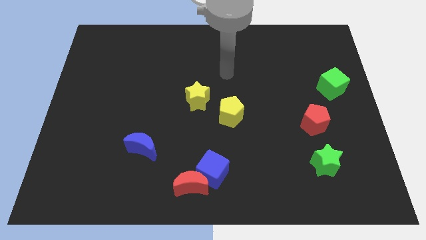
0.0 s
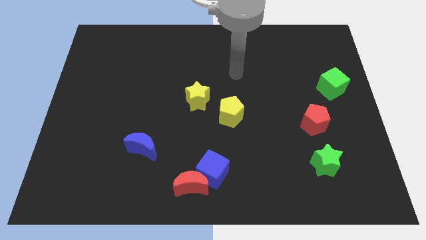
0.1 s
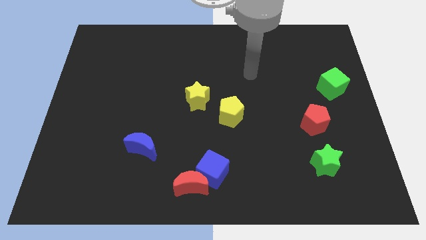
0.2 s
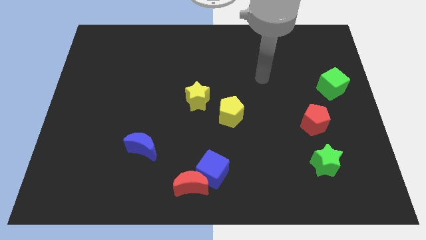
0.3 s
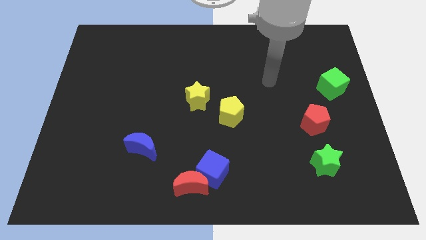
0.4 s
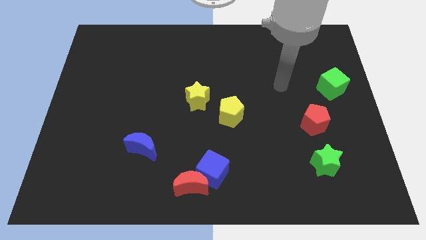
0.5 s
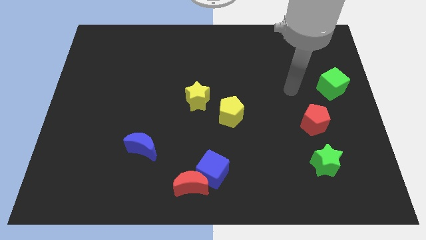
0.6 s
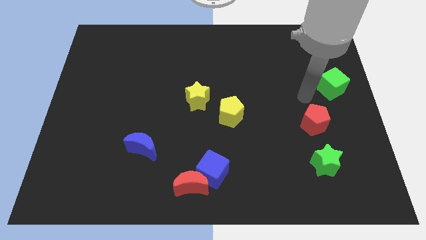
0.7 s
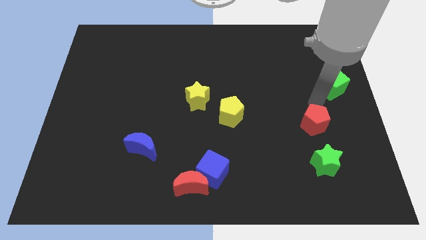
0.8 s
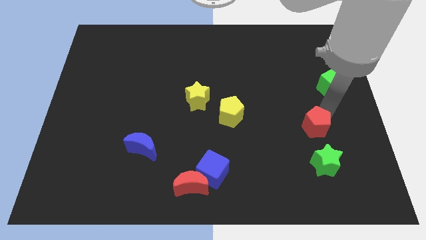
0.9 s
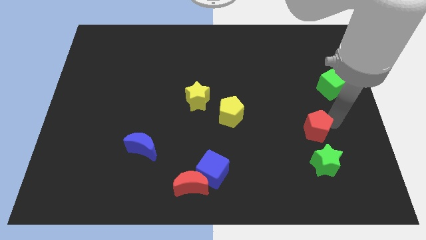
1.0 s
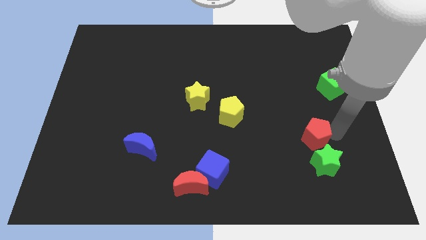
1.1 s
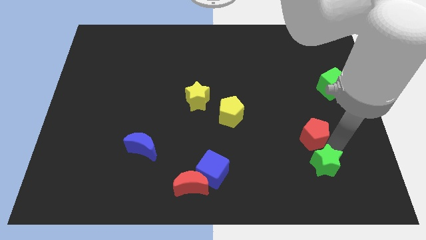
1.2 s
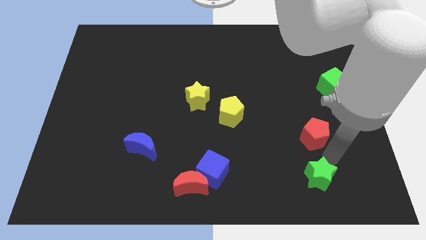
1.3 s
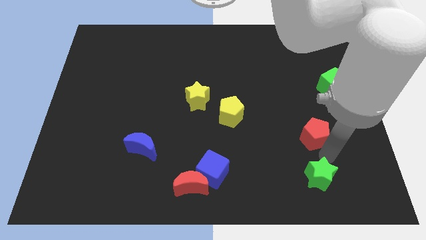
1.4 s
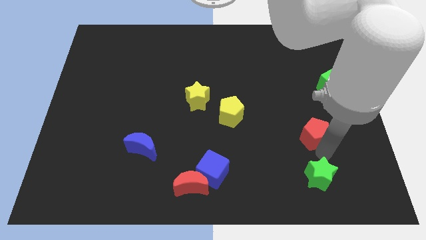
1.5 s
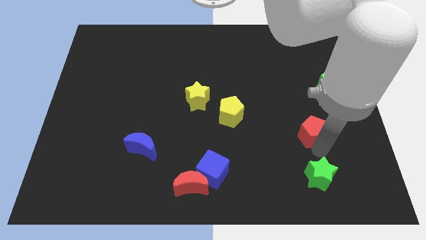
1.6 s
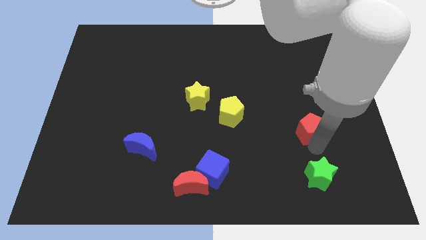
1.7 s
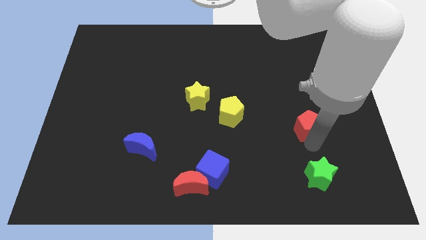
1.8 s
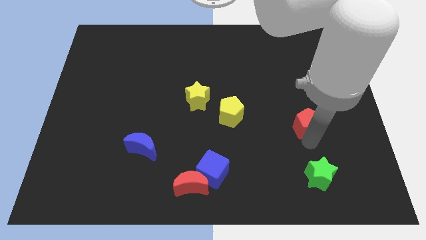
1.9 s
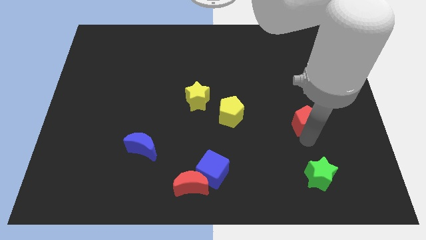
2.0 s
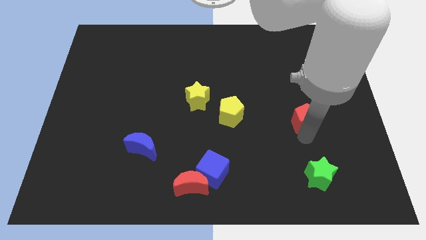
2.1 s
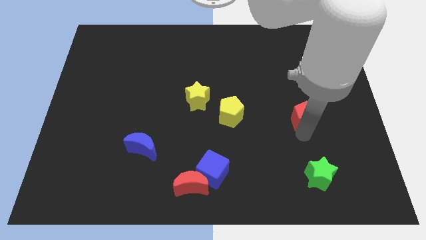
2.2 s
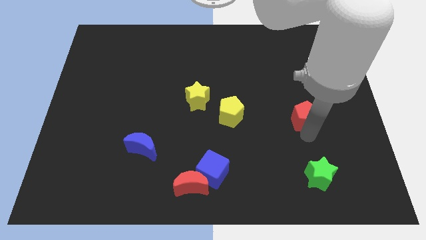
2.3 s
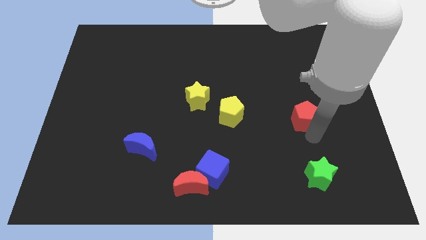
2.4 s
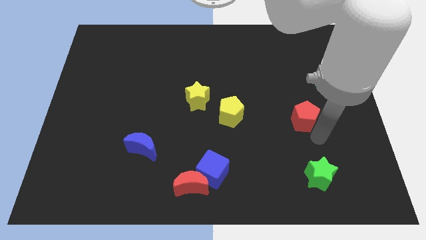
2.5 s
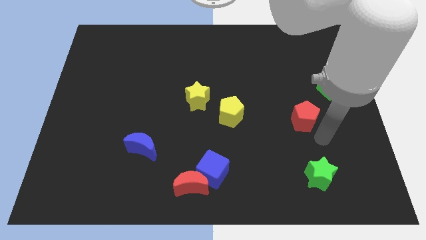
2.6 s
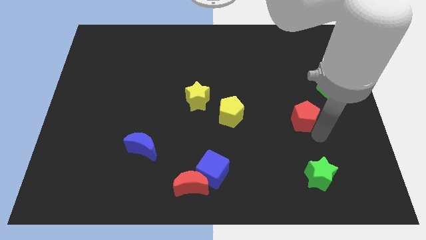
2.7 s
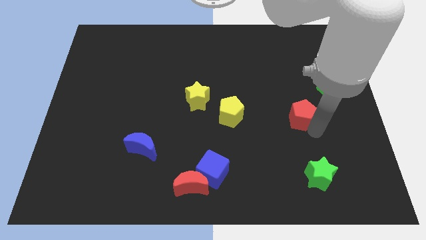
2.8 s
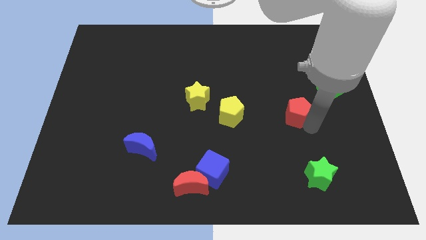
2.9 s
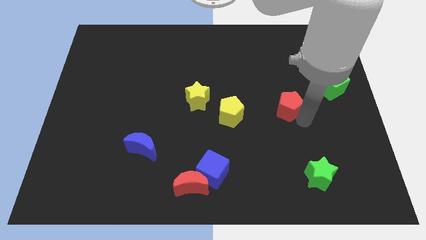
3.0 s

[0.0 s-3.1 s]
push the red pentagon up and to the left somewhat

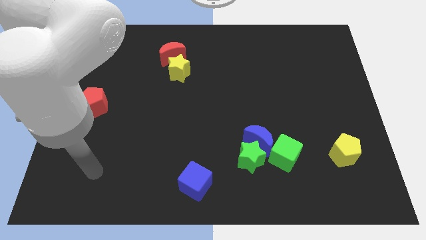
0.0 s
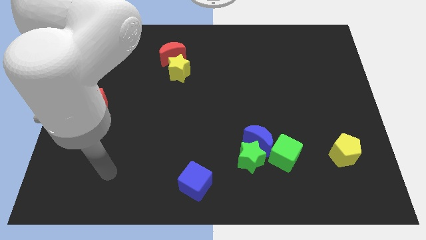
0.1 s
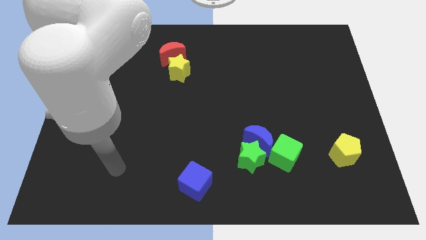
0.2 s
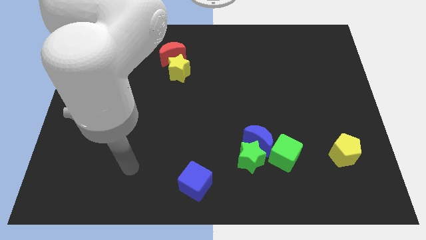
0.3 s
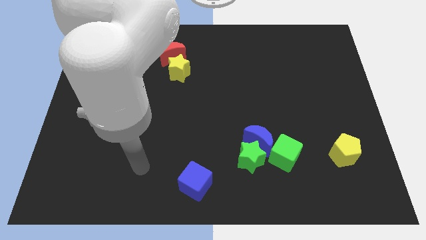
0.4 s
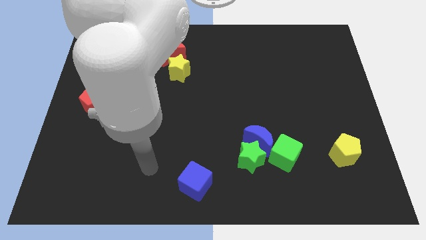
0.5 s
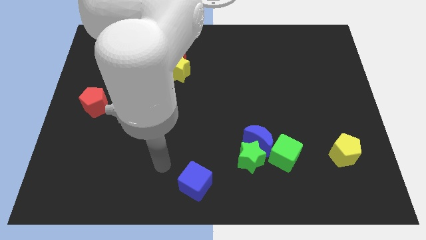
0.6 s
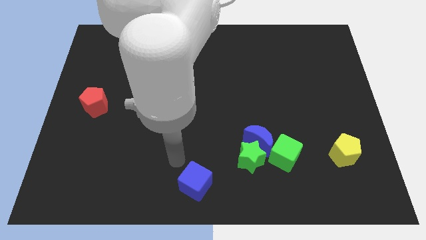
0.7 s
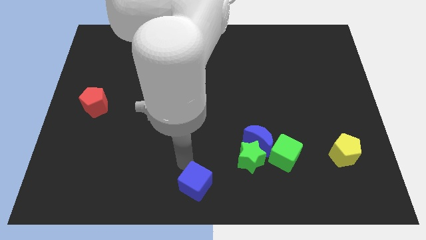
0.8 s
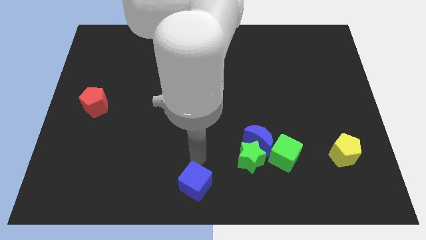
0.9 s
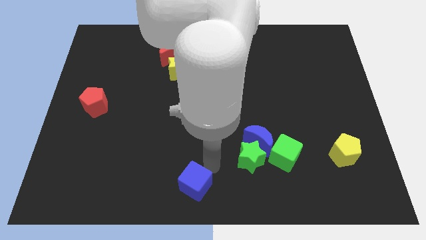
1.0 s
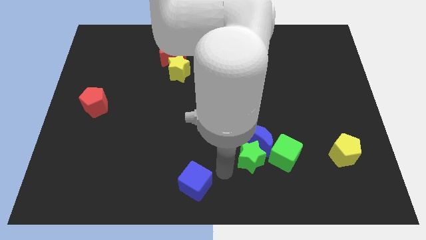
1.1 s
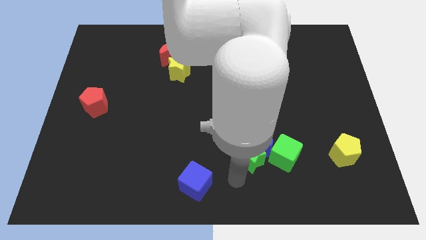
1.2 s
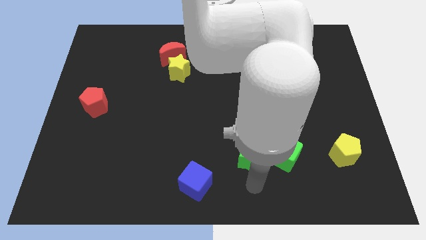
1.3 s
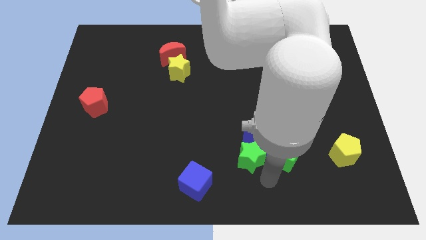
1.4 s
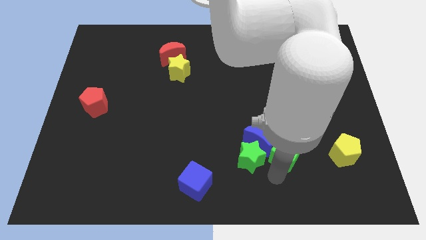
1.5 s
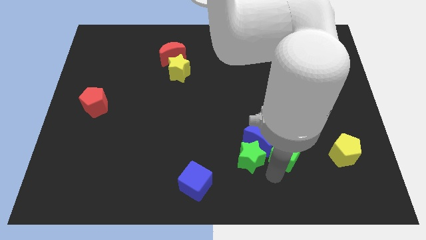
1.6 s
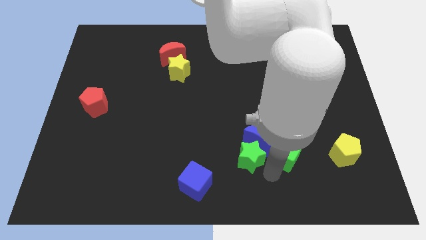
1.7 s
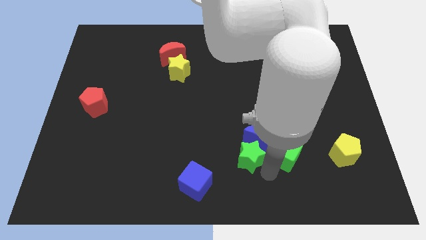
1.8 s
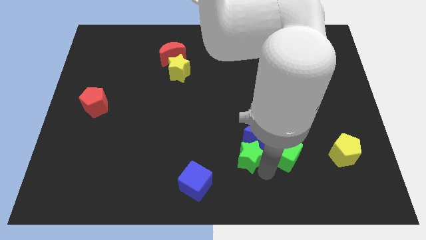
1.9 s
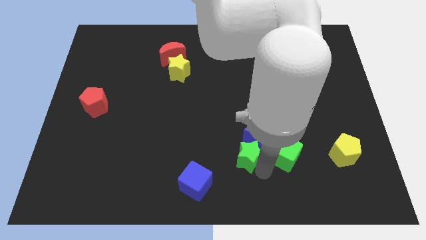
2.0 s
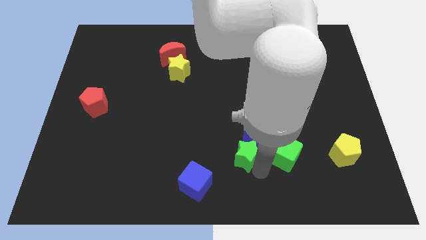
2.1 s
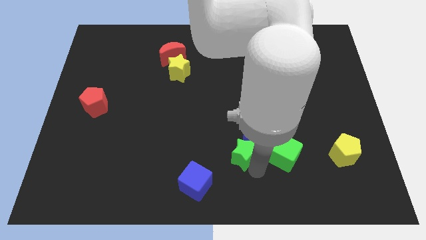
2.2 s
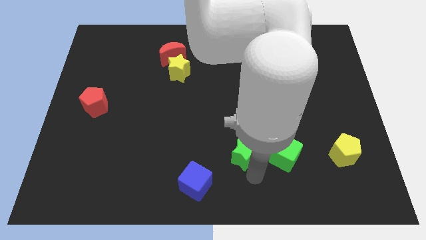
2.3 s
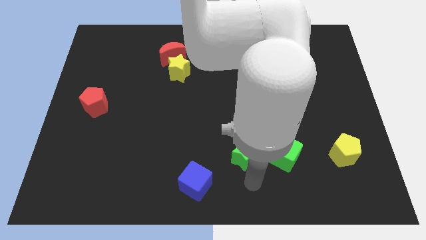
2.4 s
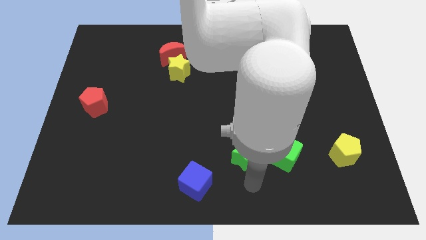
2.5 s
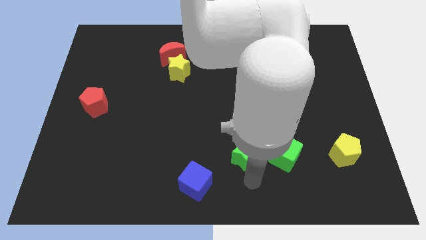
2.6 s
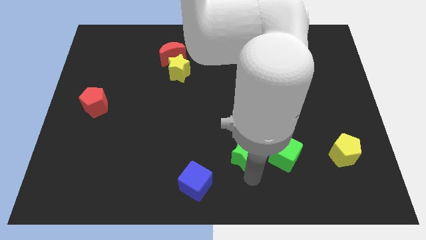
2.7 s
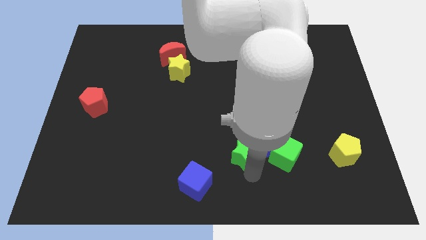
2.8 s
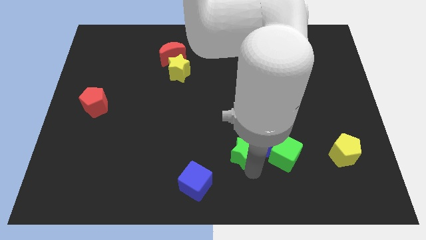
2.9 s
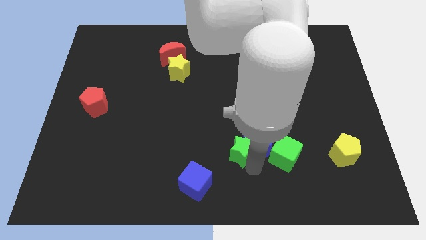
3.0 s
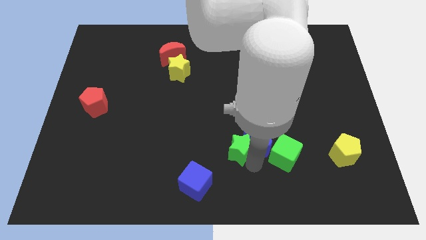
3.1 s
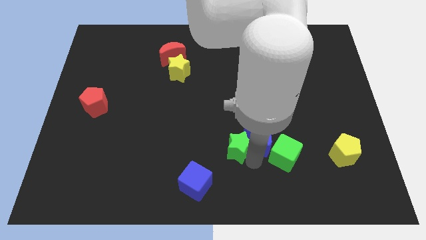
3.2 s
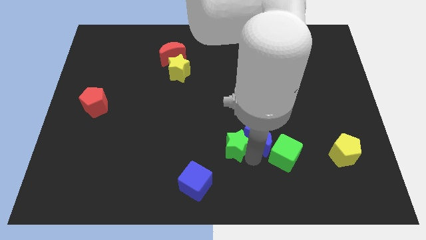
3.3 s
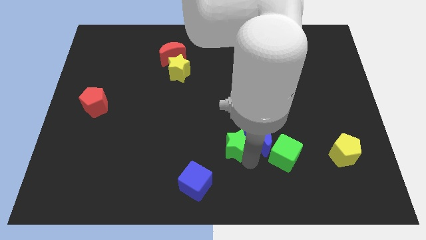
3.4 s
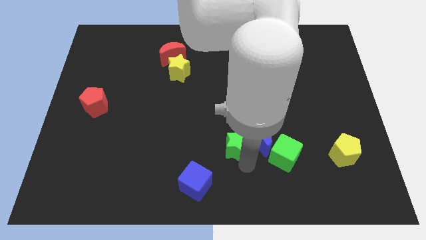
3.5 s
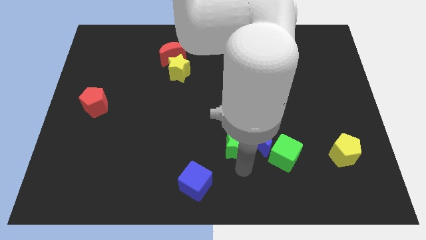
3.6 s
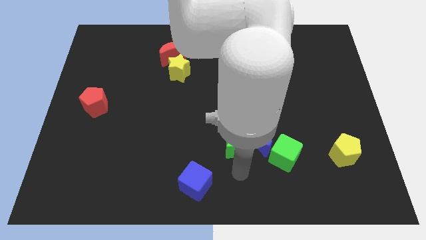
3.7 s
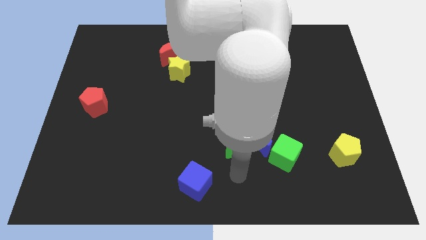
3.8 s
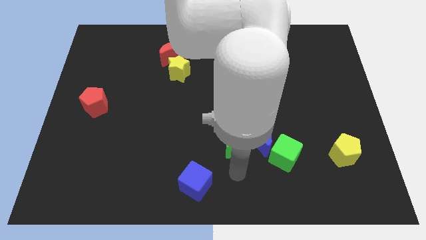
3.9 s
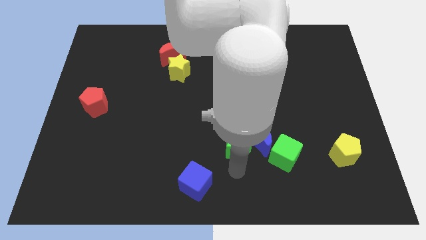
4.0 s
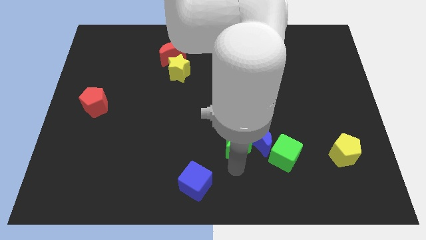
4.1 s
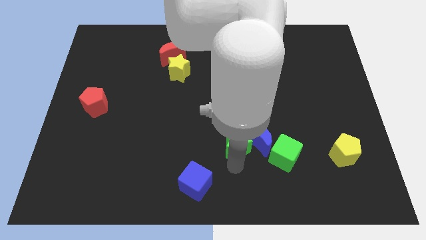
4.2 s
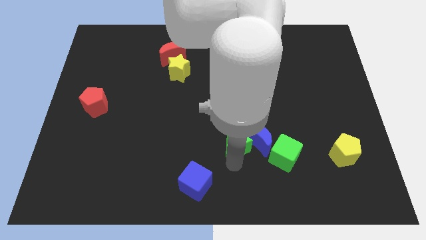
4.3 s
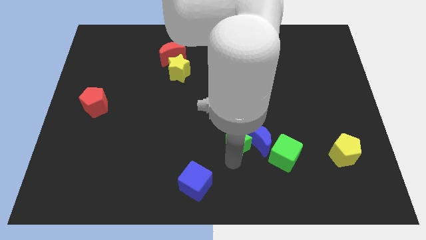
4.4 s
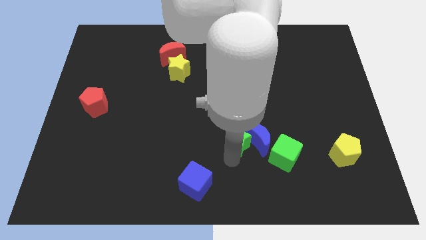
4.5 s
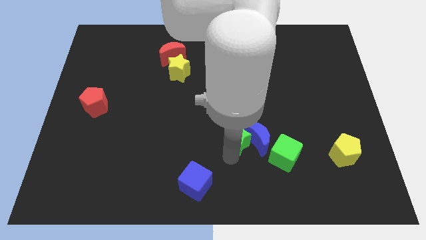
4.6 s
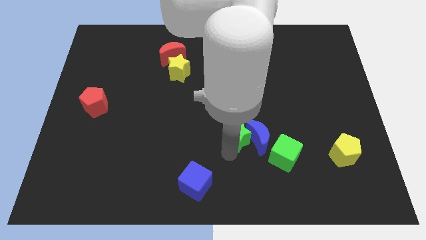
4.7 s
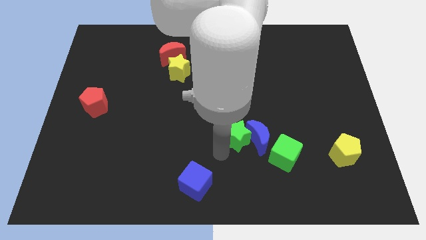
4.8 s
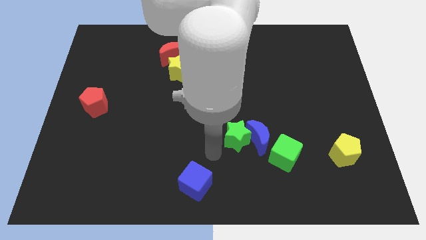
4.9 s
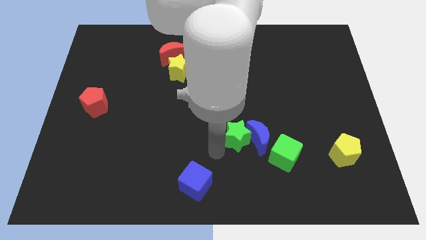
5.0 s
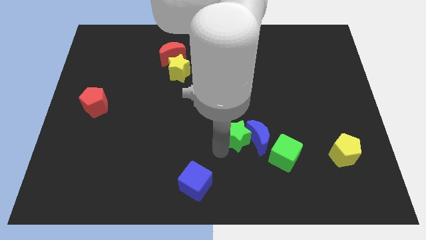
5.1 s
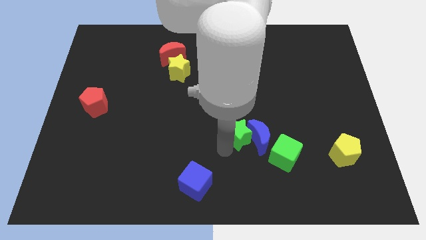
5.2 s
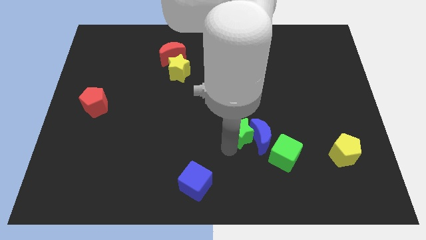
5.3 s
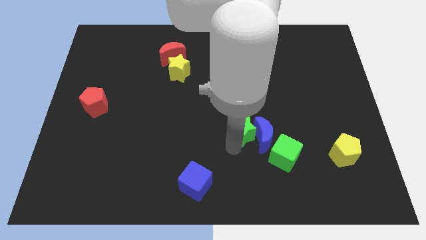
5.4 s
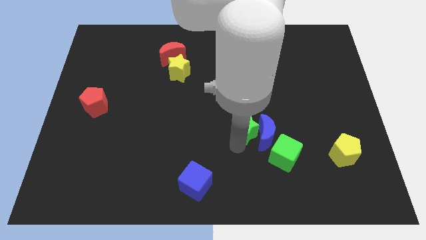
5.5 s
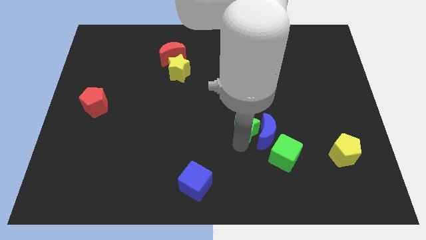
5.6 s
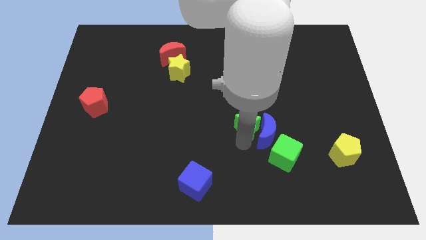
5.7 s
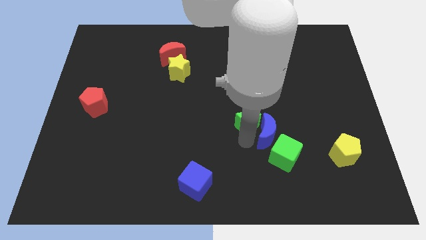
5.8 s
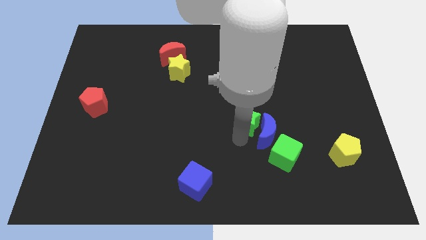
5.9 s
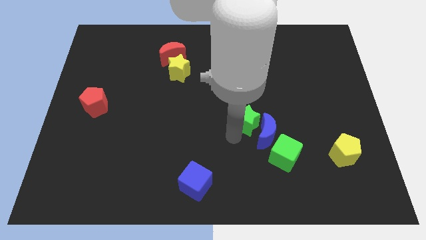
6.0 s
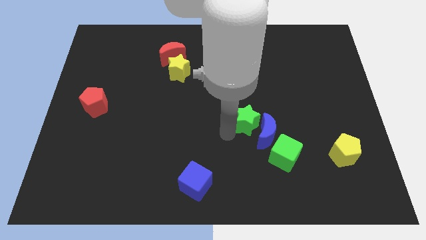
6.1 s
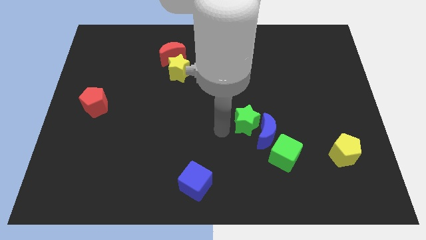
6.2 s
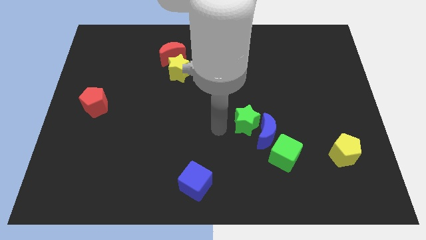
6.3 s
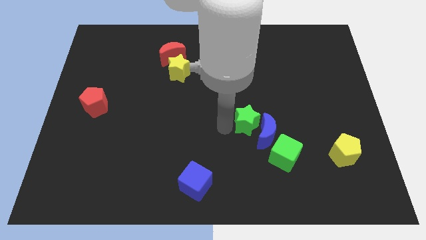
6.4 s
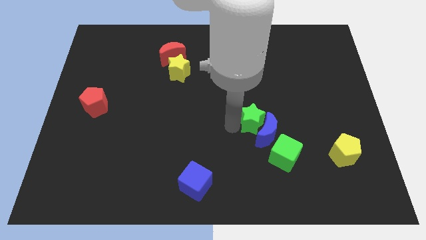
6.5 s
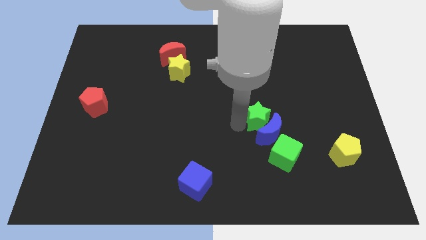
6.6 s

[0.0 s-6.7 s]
move the green star up and right diagonally somewhat
